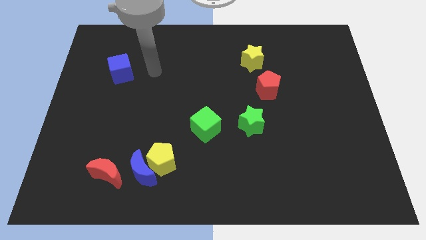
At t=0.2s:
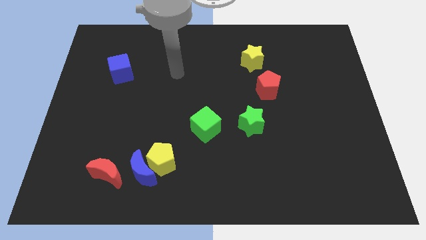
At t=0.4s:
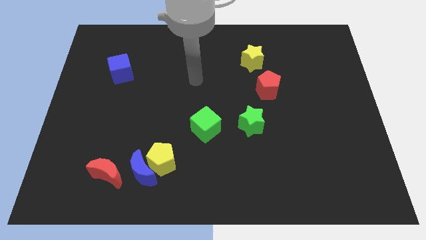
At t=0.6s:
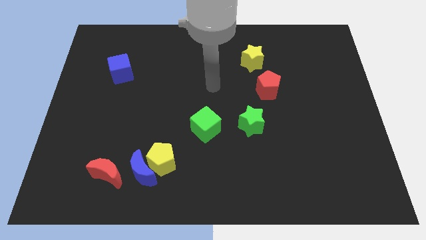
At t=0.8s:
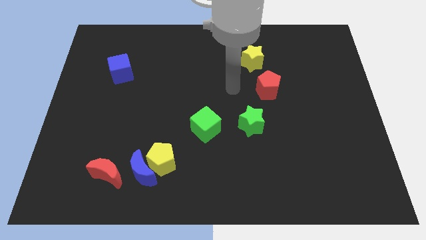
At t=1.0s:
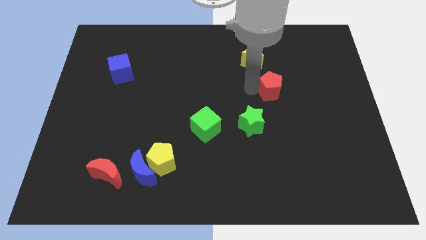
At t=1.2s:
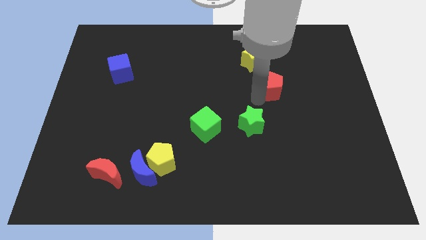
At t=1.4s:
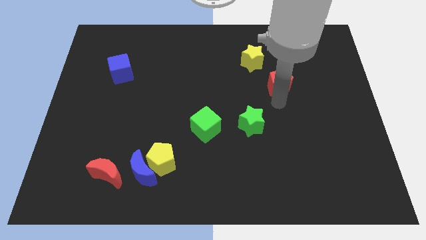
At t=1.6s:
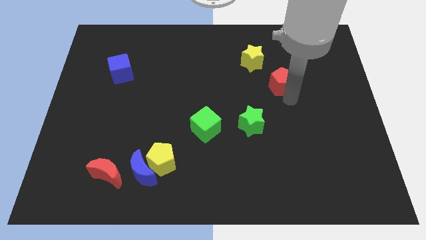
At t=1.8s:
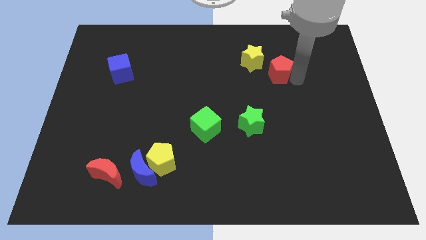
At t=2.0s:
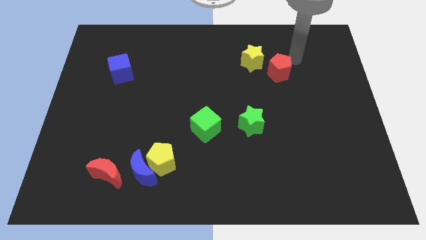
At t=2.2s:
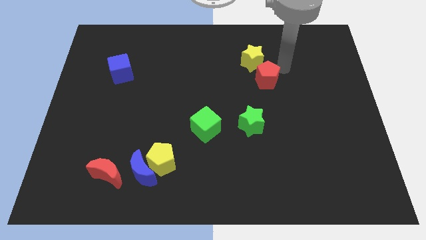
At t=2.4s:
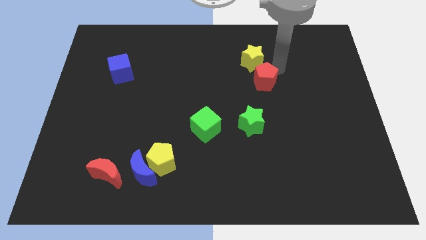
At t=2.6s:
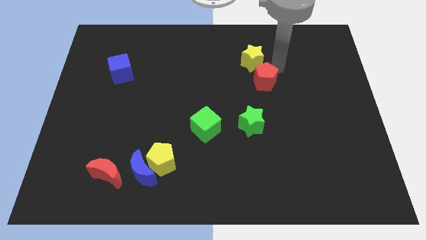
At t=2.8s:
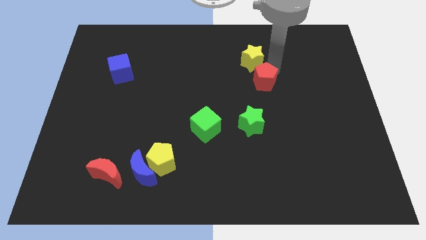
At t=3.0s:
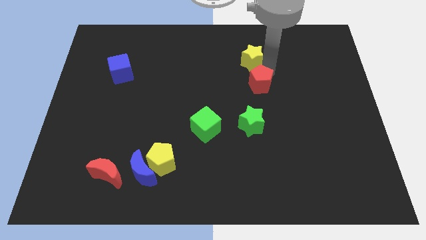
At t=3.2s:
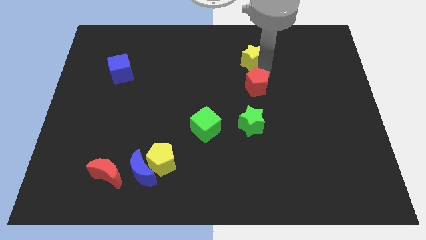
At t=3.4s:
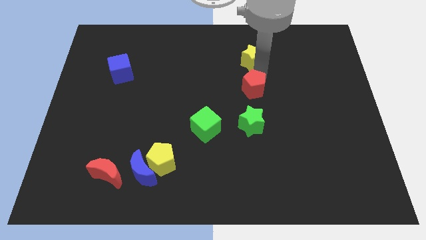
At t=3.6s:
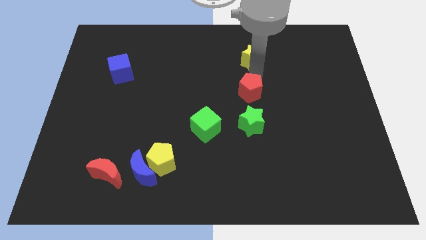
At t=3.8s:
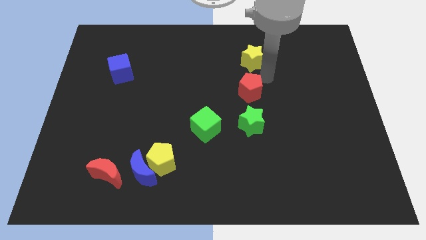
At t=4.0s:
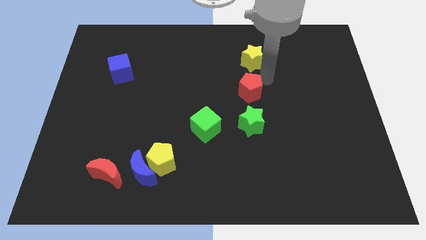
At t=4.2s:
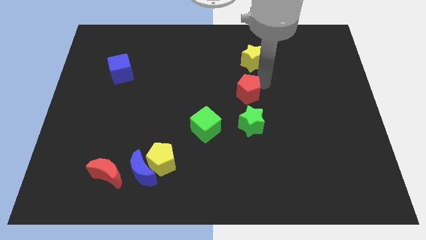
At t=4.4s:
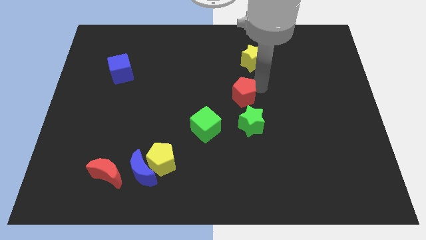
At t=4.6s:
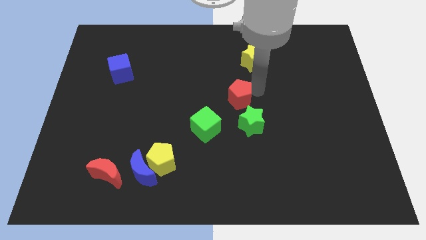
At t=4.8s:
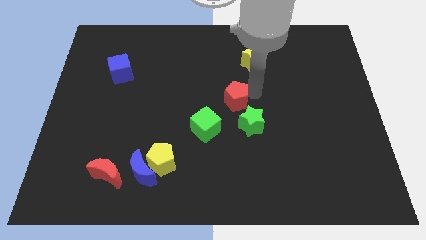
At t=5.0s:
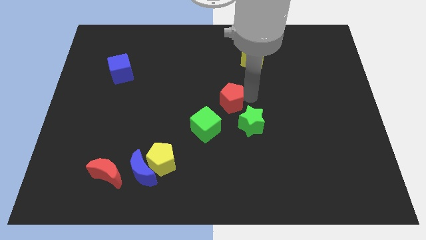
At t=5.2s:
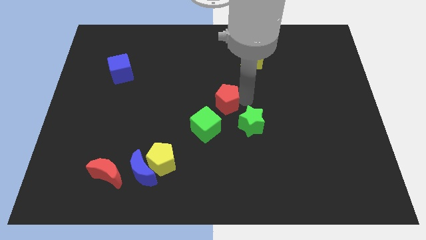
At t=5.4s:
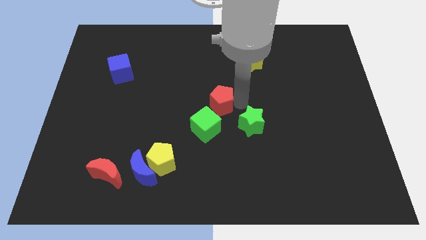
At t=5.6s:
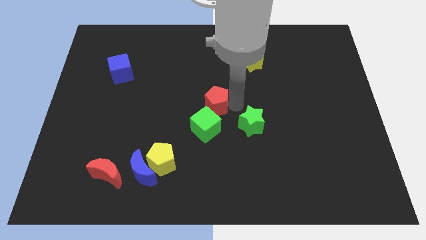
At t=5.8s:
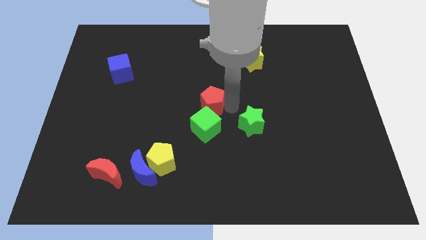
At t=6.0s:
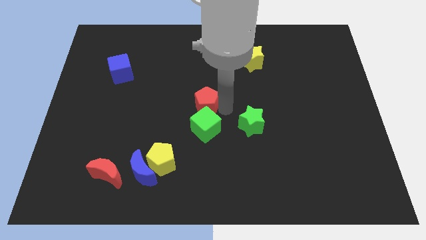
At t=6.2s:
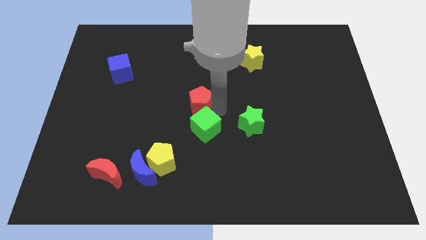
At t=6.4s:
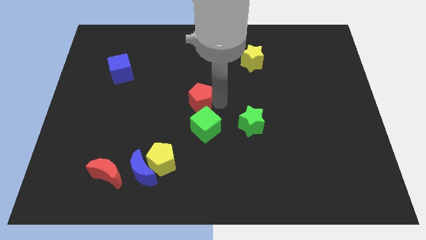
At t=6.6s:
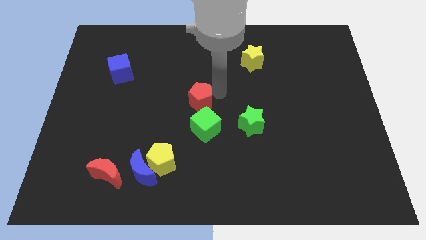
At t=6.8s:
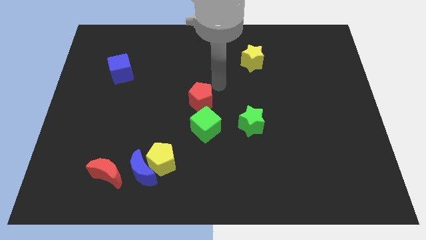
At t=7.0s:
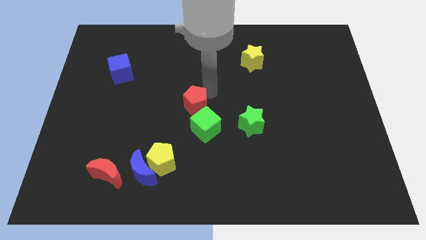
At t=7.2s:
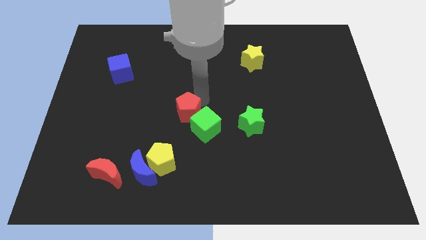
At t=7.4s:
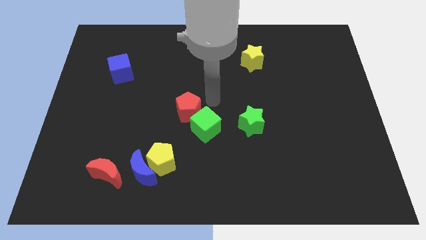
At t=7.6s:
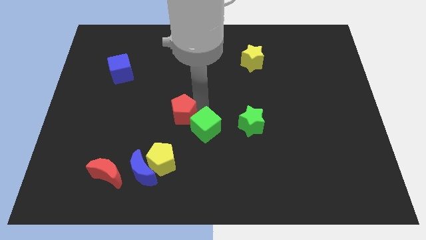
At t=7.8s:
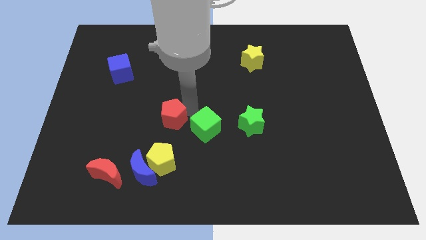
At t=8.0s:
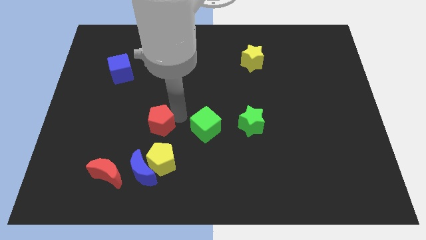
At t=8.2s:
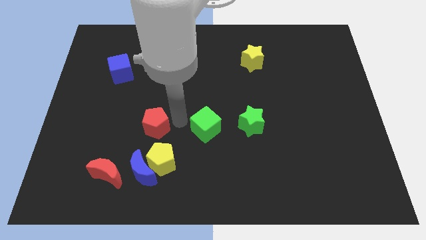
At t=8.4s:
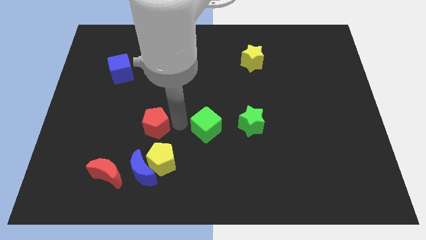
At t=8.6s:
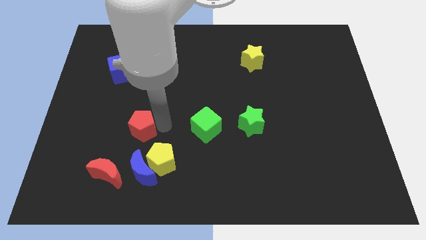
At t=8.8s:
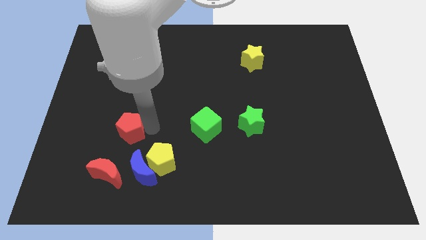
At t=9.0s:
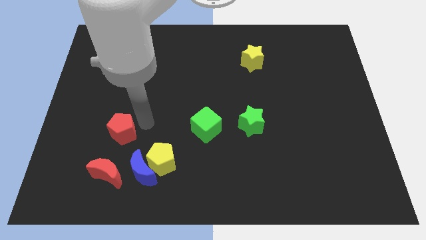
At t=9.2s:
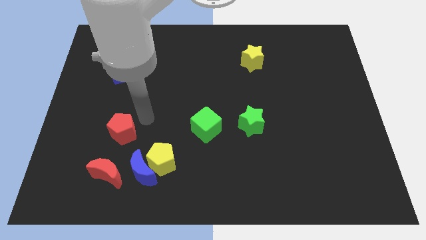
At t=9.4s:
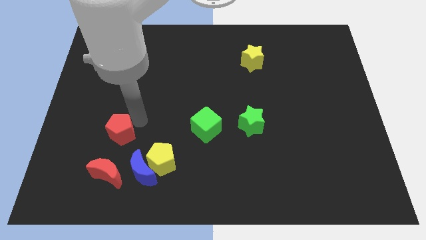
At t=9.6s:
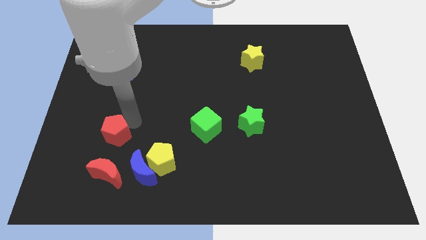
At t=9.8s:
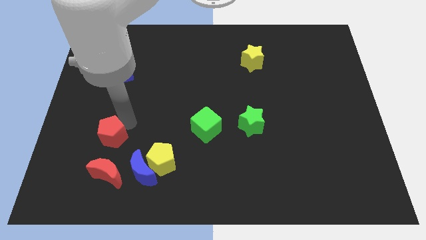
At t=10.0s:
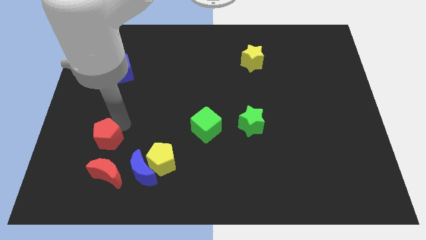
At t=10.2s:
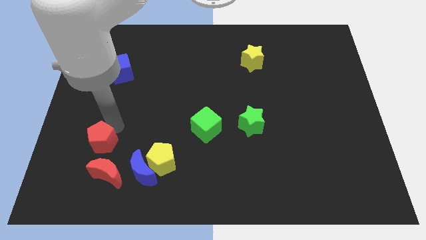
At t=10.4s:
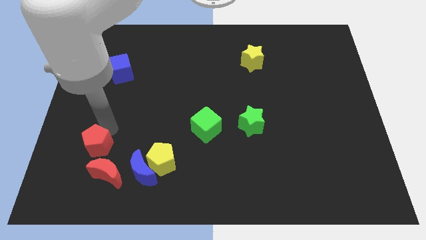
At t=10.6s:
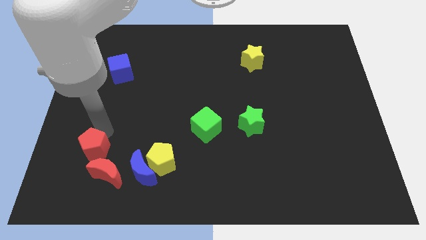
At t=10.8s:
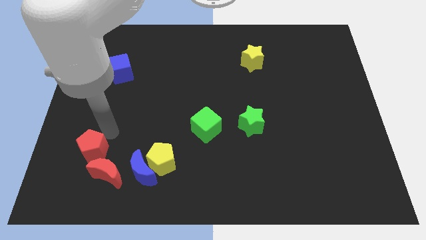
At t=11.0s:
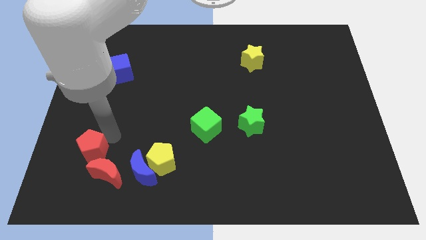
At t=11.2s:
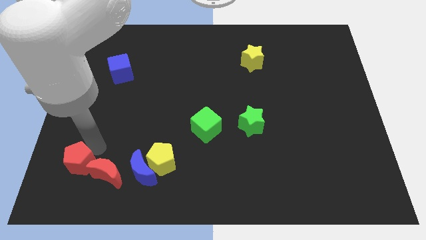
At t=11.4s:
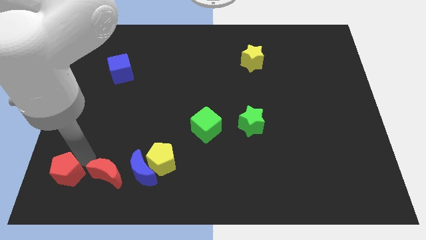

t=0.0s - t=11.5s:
push the red pentagon to the bottom left corner
